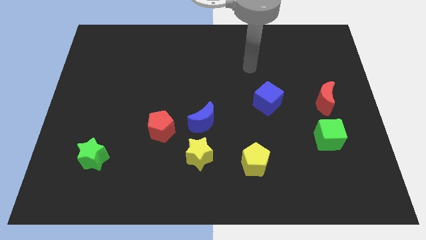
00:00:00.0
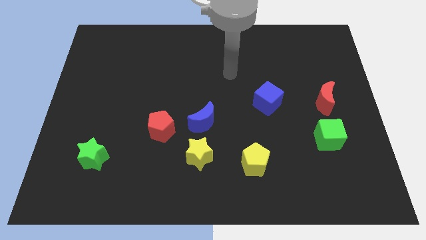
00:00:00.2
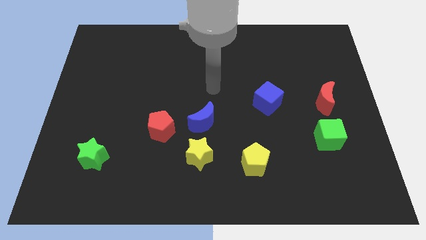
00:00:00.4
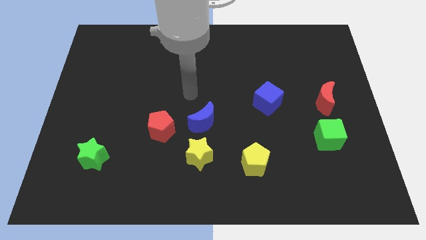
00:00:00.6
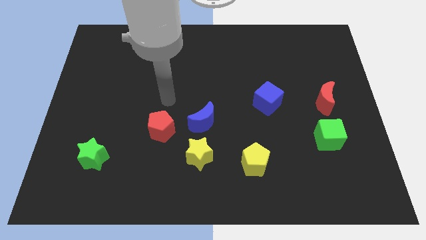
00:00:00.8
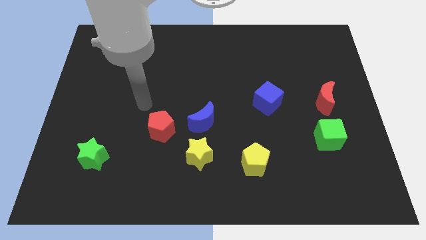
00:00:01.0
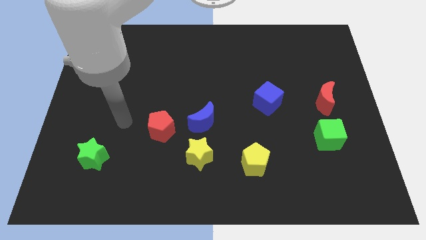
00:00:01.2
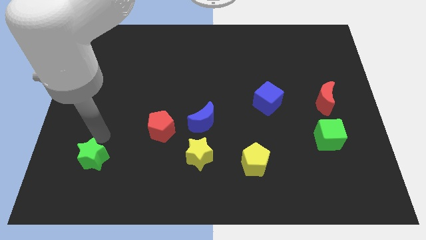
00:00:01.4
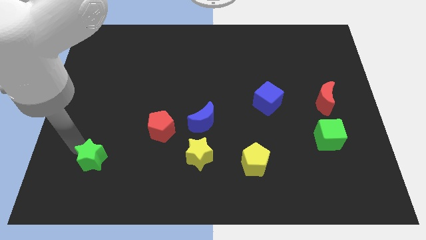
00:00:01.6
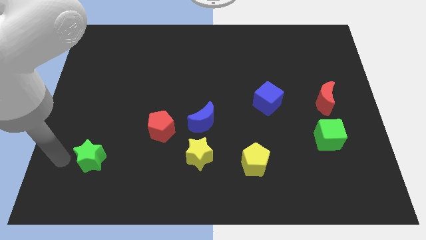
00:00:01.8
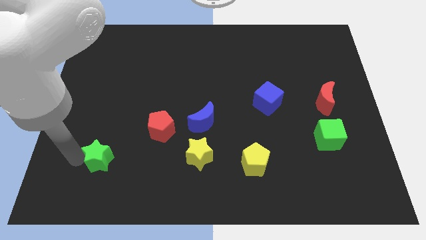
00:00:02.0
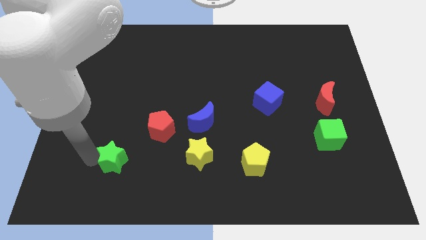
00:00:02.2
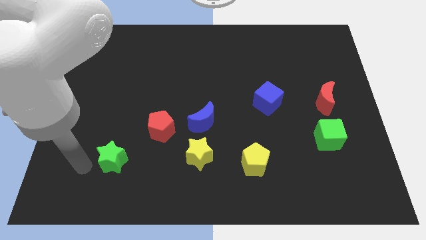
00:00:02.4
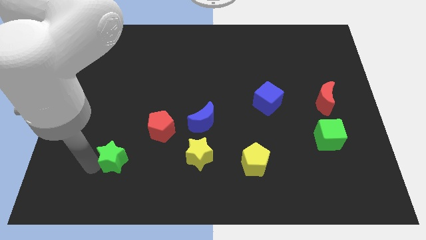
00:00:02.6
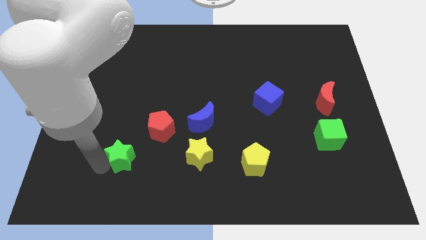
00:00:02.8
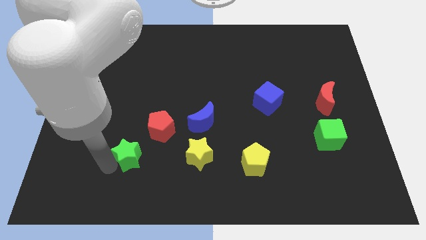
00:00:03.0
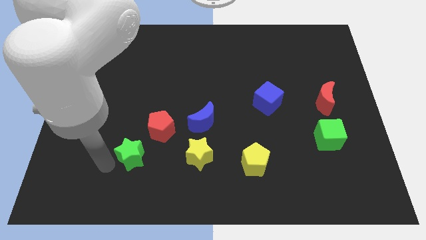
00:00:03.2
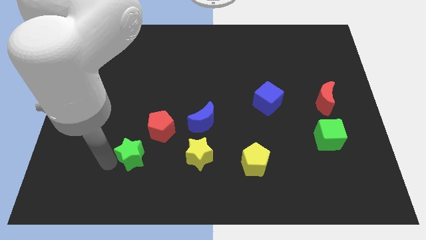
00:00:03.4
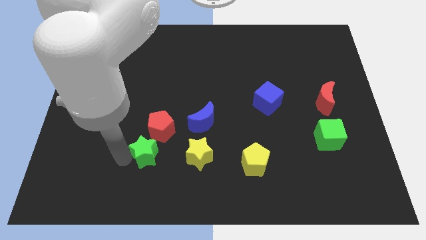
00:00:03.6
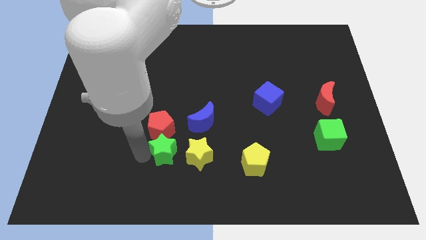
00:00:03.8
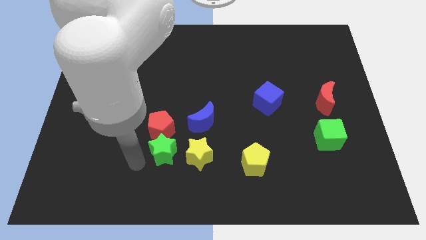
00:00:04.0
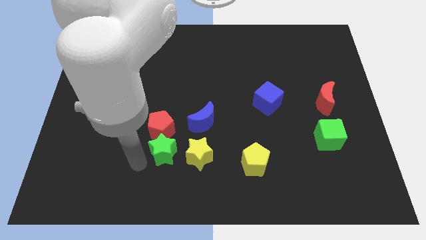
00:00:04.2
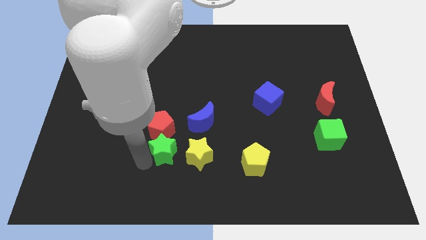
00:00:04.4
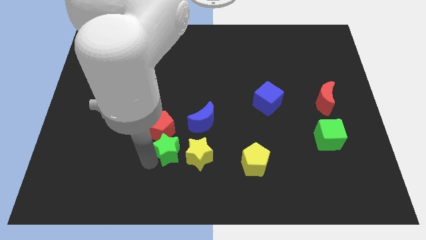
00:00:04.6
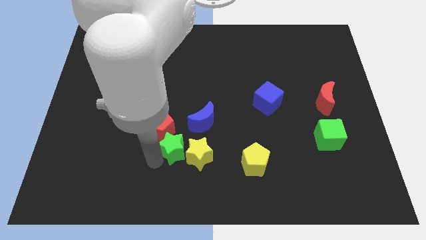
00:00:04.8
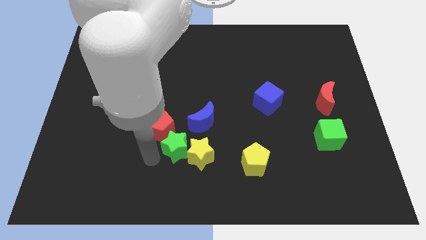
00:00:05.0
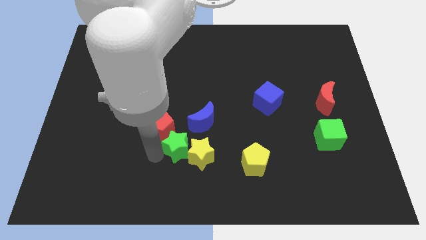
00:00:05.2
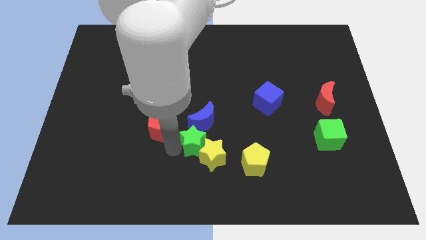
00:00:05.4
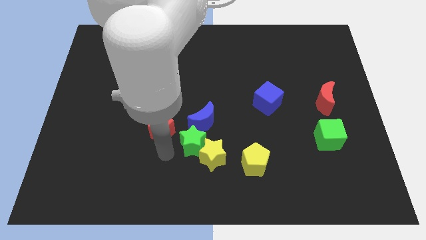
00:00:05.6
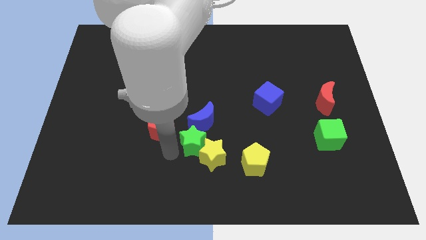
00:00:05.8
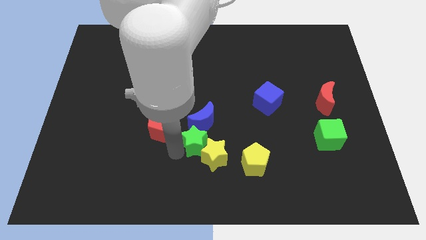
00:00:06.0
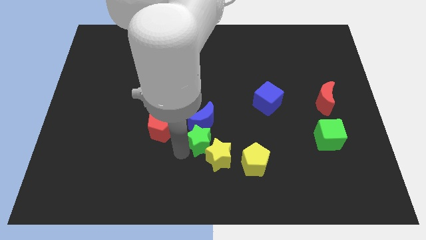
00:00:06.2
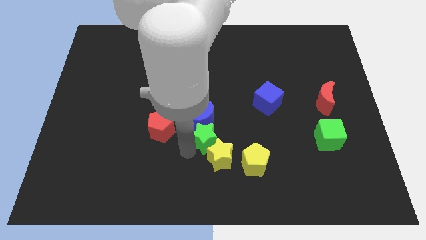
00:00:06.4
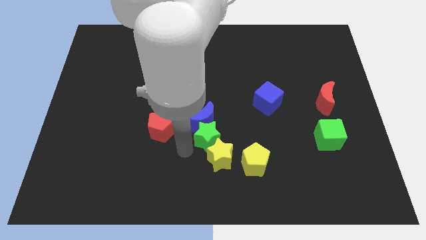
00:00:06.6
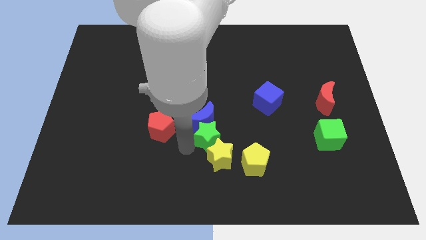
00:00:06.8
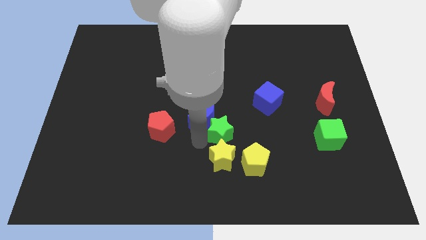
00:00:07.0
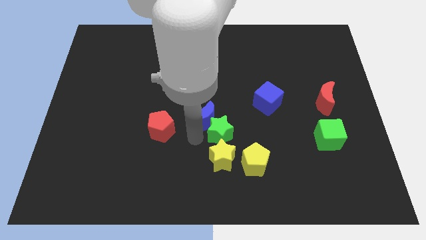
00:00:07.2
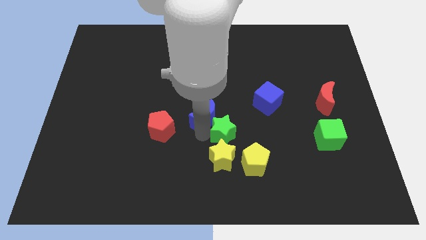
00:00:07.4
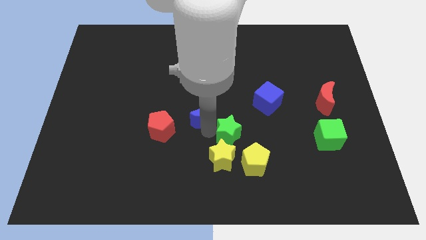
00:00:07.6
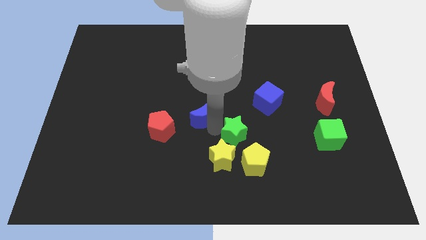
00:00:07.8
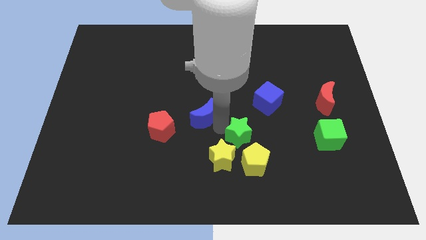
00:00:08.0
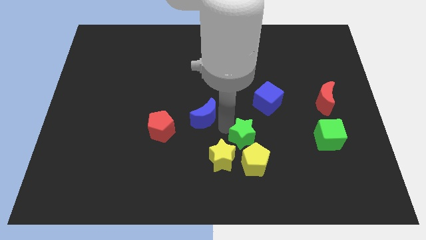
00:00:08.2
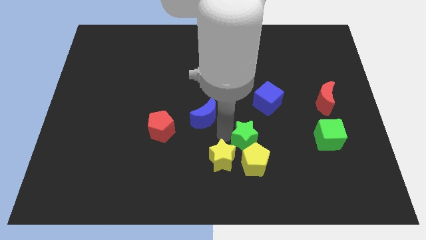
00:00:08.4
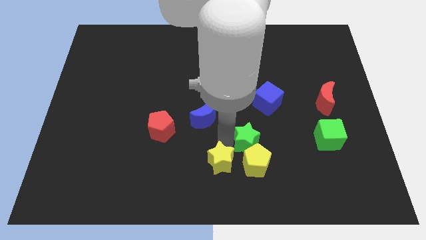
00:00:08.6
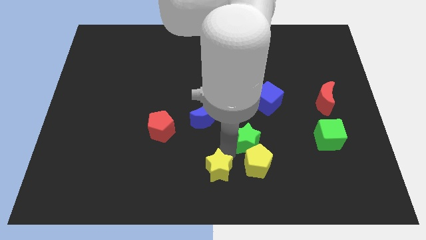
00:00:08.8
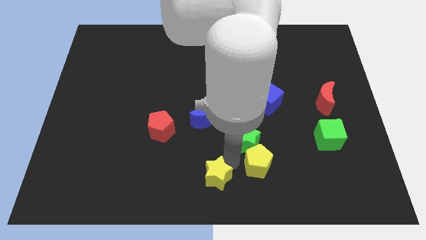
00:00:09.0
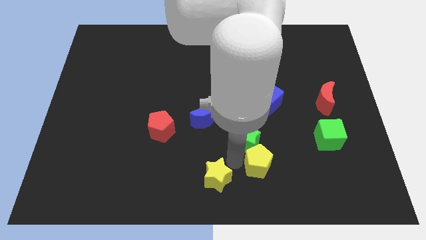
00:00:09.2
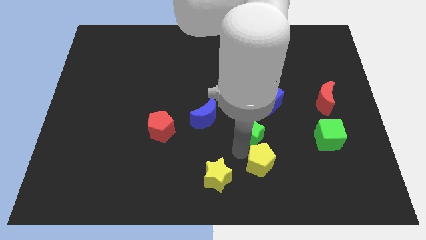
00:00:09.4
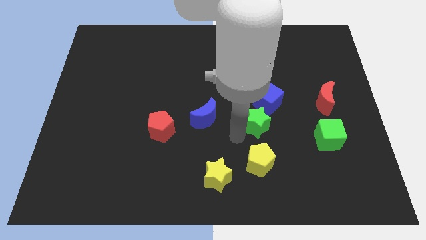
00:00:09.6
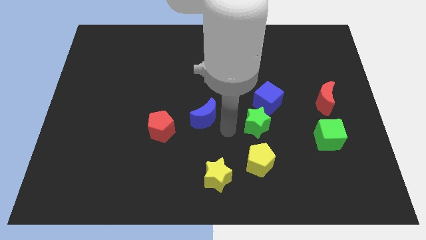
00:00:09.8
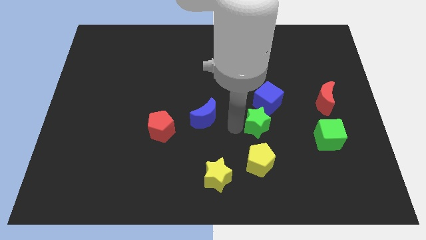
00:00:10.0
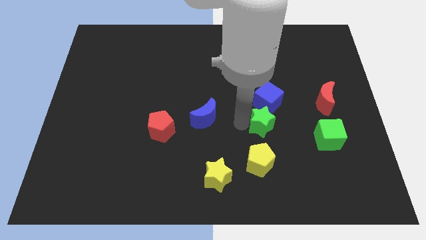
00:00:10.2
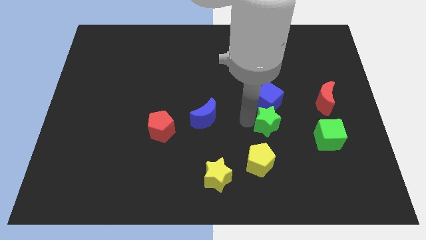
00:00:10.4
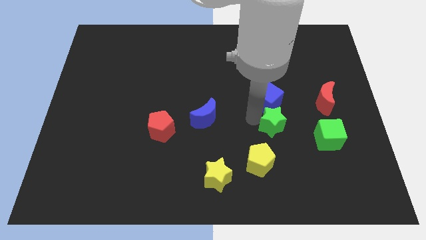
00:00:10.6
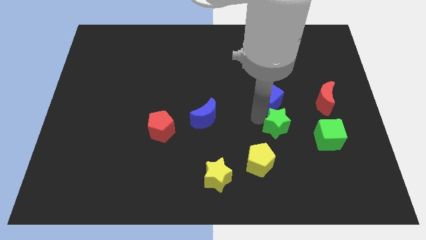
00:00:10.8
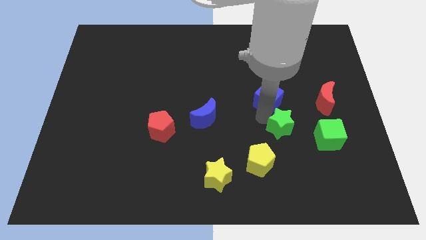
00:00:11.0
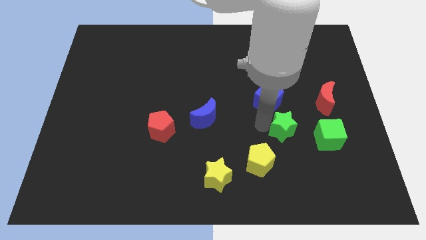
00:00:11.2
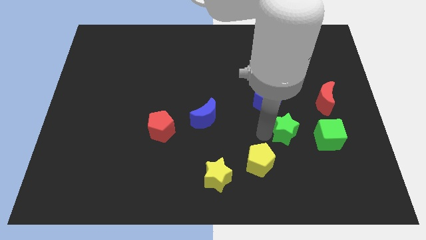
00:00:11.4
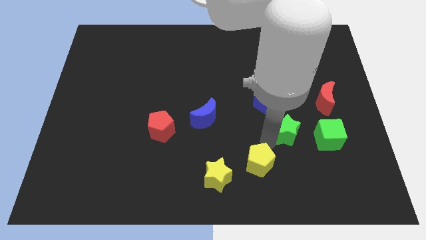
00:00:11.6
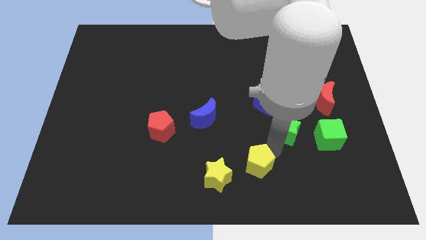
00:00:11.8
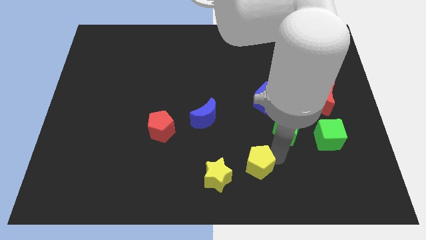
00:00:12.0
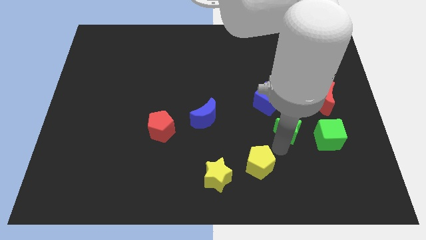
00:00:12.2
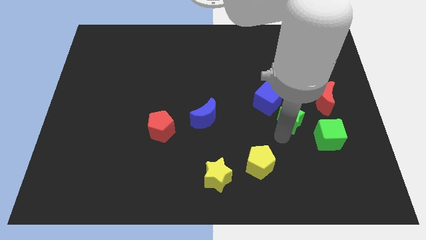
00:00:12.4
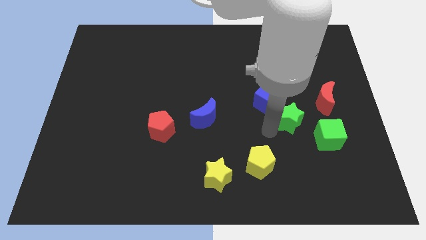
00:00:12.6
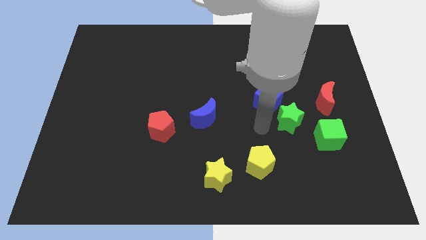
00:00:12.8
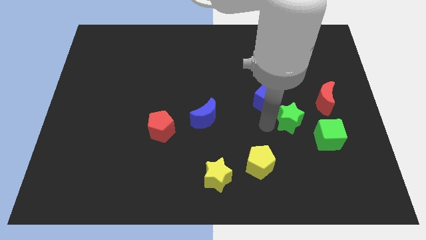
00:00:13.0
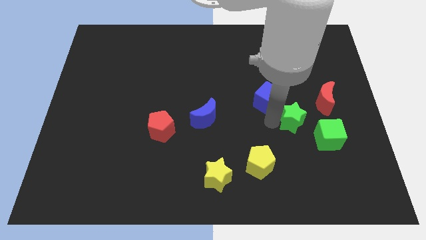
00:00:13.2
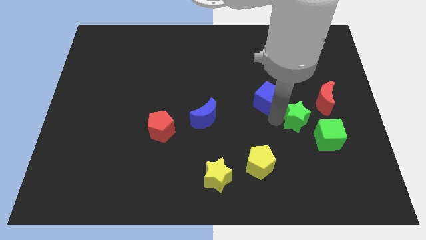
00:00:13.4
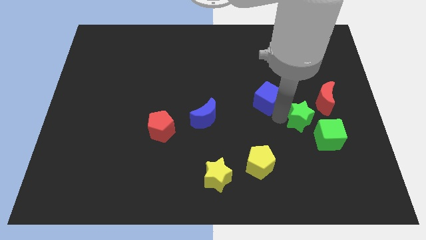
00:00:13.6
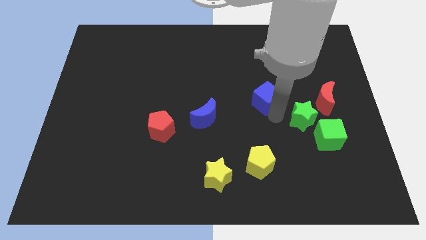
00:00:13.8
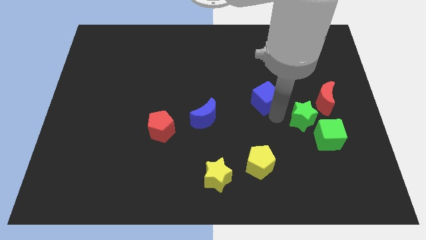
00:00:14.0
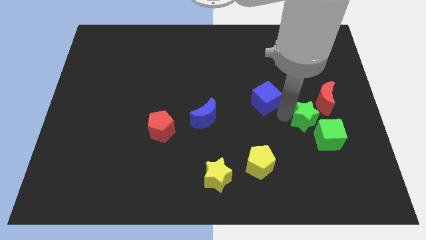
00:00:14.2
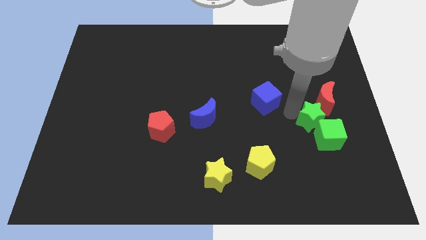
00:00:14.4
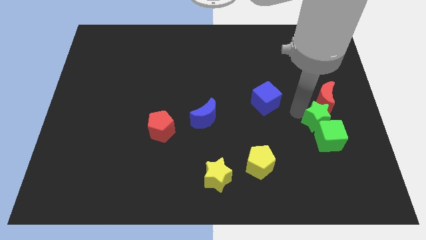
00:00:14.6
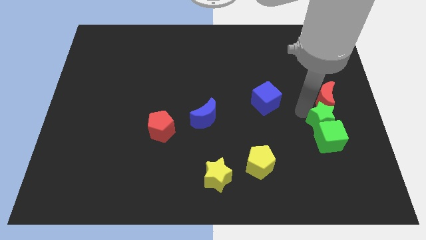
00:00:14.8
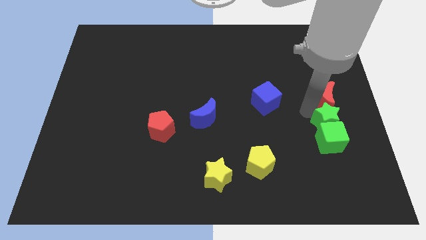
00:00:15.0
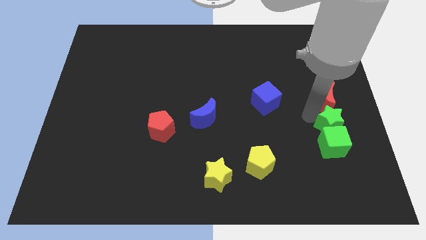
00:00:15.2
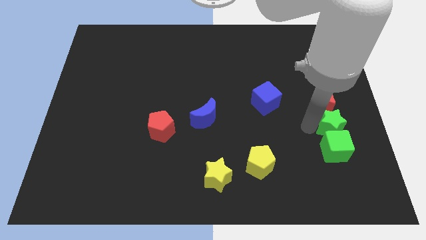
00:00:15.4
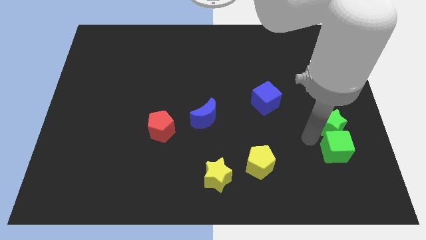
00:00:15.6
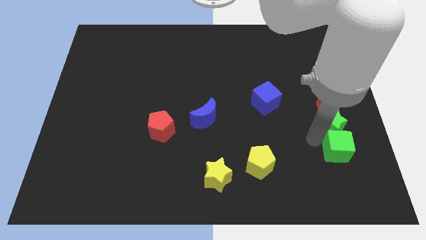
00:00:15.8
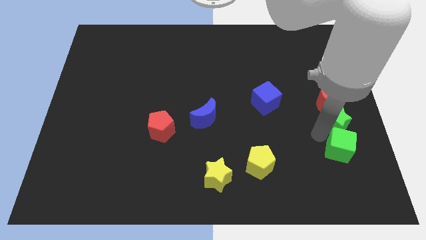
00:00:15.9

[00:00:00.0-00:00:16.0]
move the green star to the right side of the board
